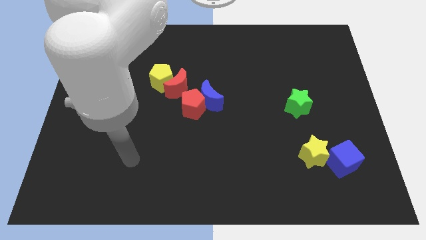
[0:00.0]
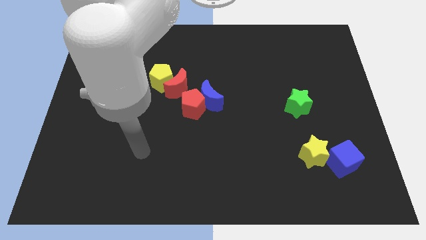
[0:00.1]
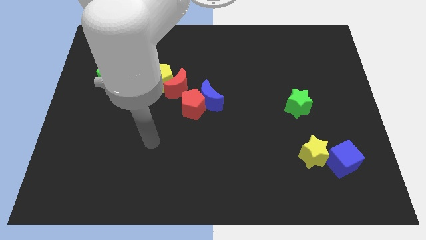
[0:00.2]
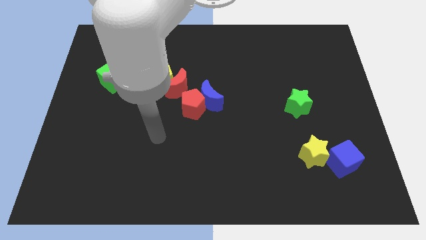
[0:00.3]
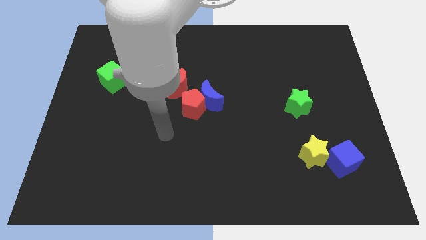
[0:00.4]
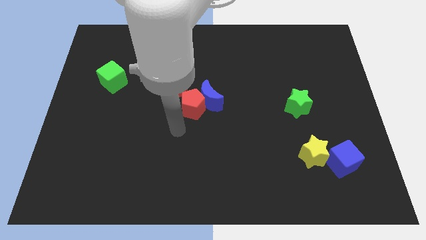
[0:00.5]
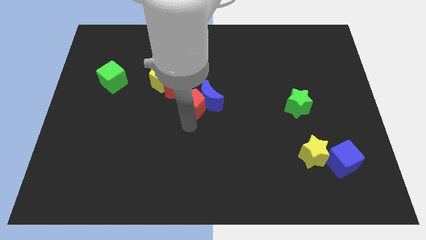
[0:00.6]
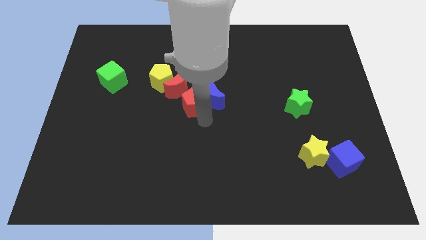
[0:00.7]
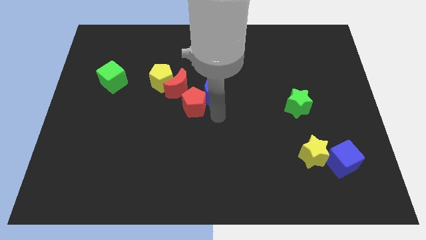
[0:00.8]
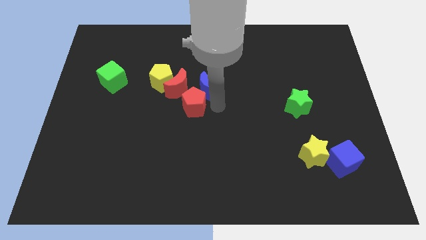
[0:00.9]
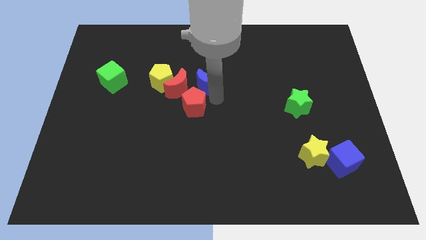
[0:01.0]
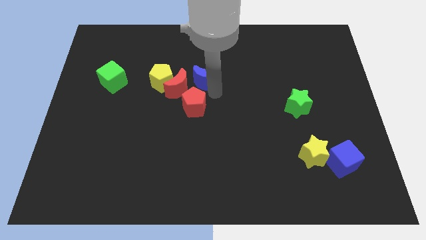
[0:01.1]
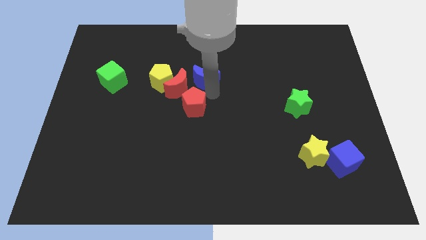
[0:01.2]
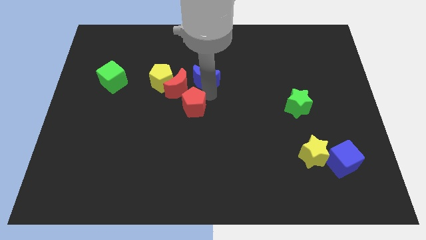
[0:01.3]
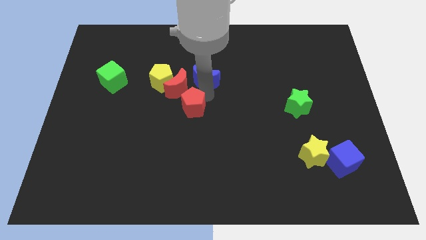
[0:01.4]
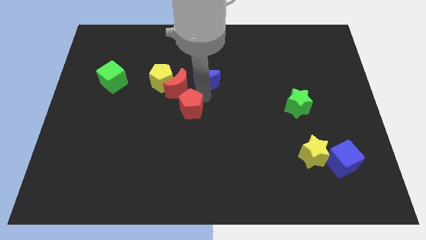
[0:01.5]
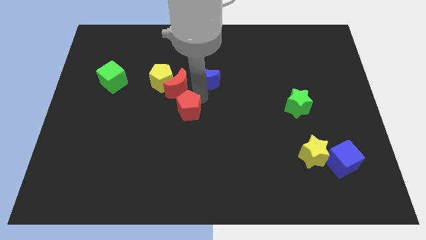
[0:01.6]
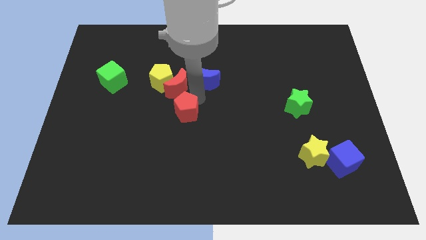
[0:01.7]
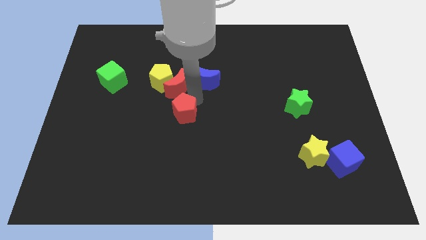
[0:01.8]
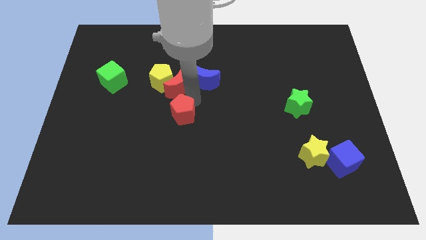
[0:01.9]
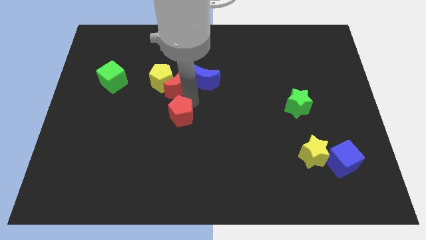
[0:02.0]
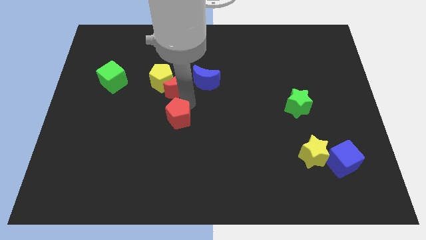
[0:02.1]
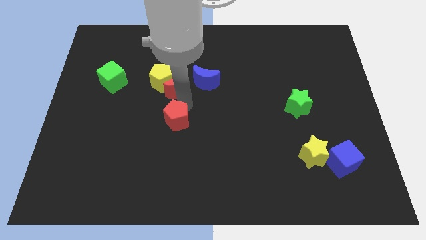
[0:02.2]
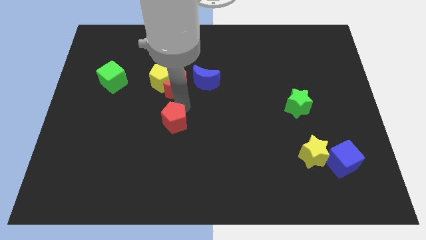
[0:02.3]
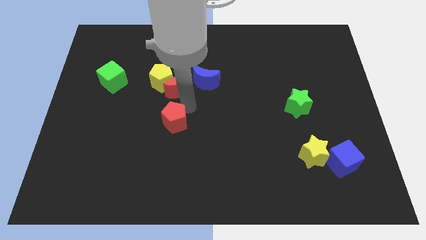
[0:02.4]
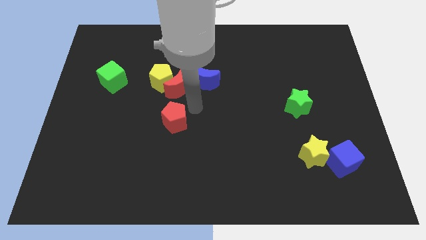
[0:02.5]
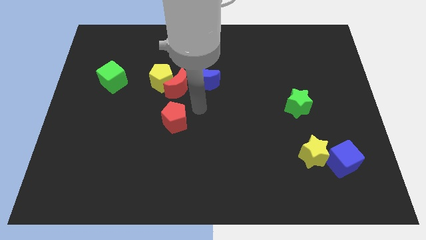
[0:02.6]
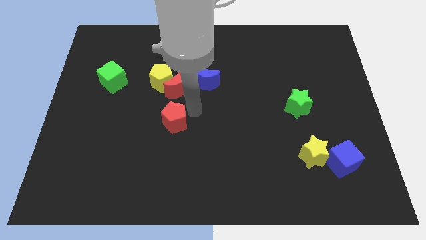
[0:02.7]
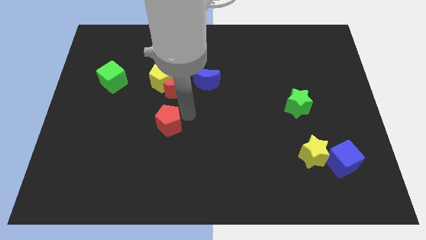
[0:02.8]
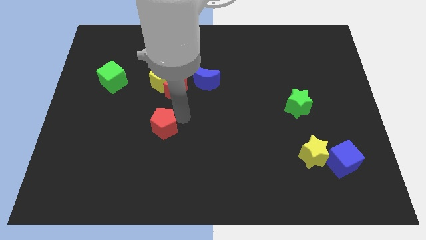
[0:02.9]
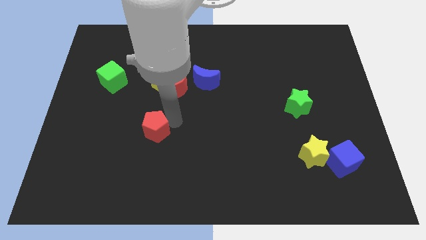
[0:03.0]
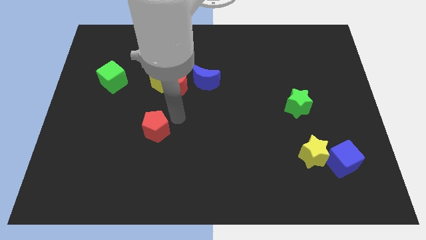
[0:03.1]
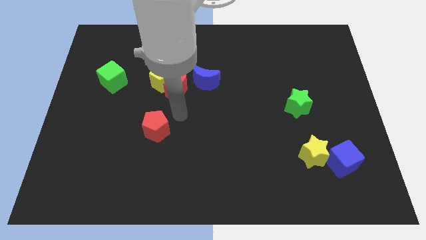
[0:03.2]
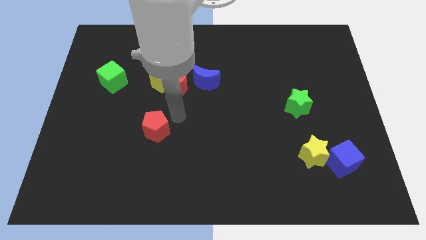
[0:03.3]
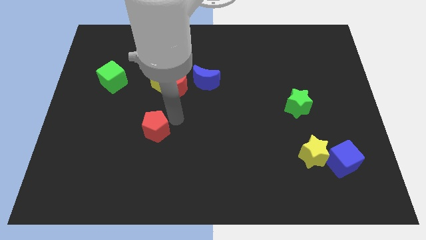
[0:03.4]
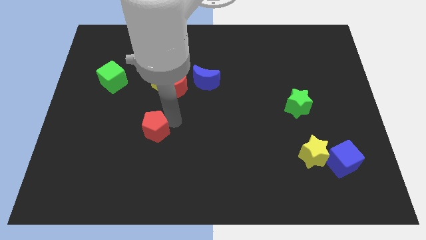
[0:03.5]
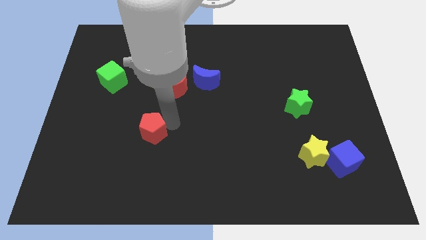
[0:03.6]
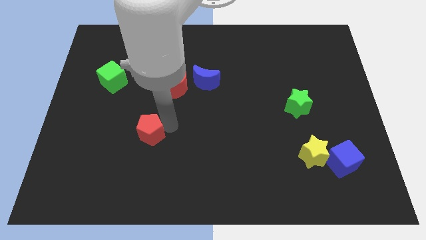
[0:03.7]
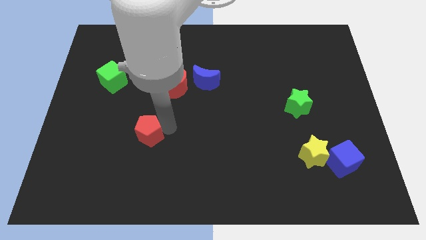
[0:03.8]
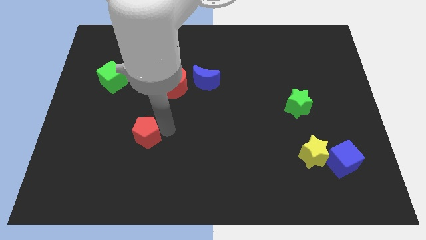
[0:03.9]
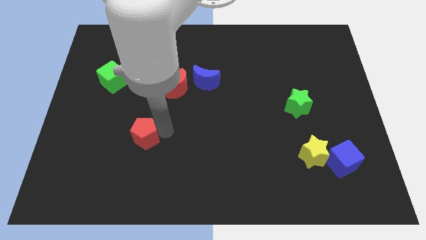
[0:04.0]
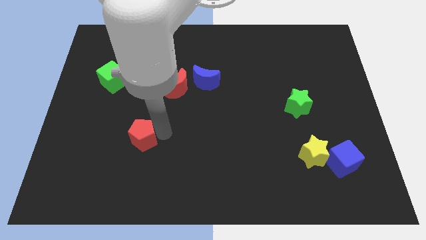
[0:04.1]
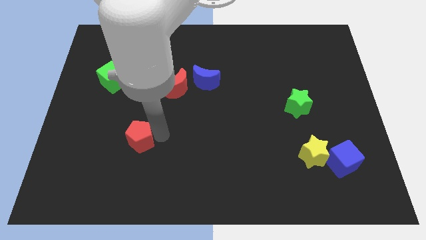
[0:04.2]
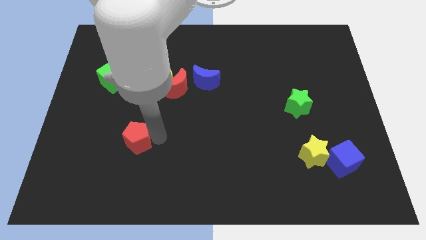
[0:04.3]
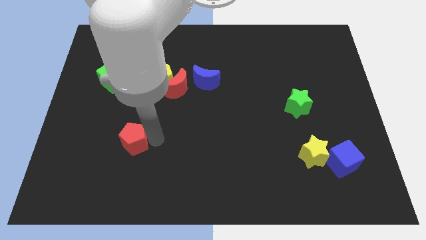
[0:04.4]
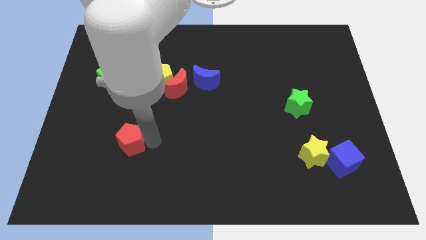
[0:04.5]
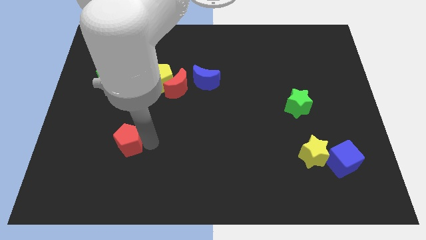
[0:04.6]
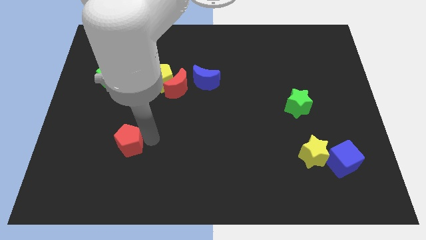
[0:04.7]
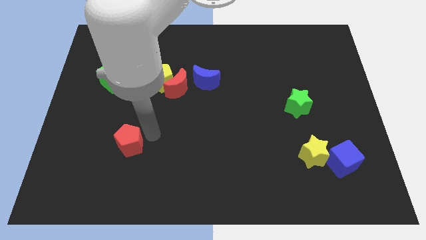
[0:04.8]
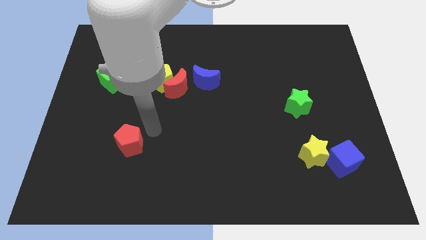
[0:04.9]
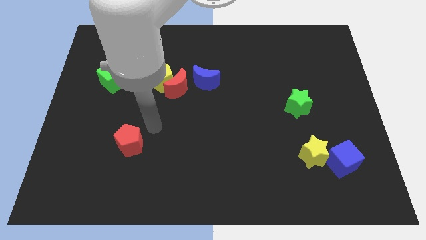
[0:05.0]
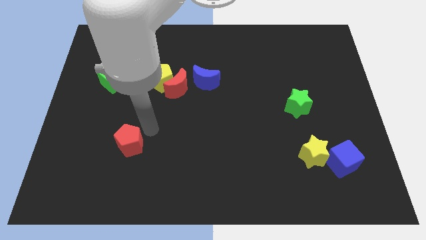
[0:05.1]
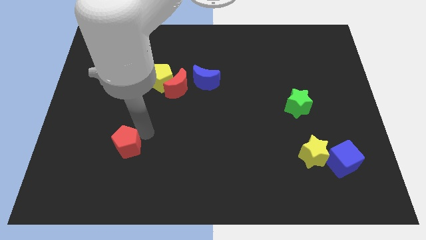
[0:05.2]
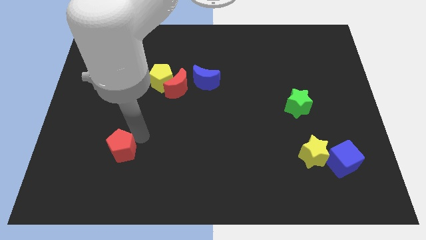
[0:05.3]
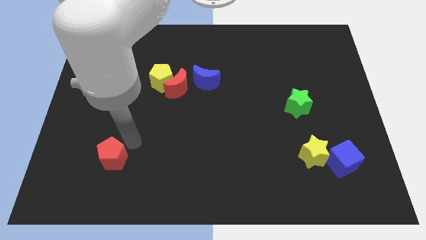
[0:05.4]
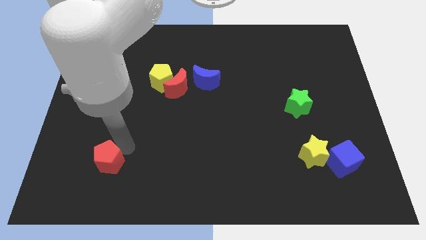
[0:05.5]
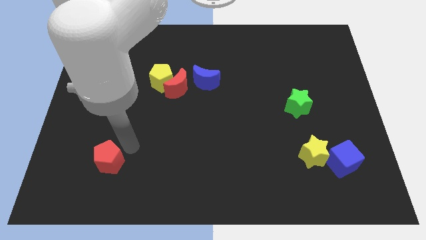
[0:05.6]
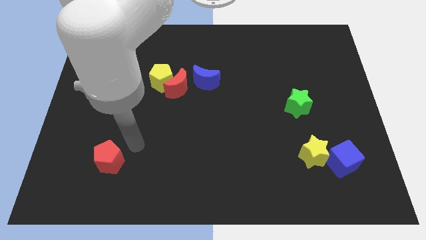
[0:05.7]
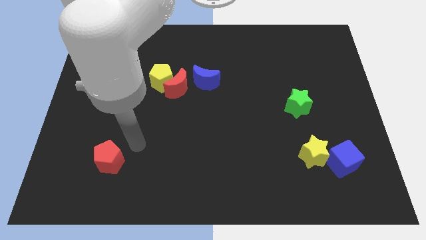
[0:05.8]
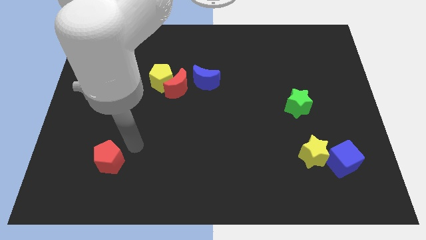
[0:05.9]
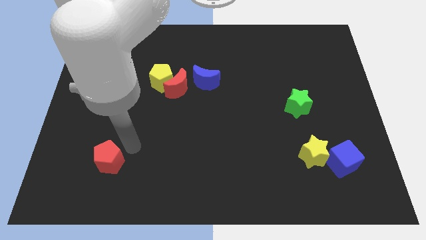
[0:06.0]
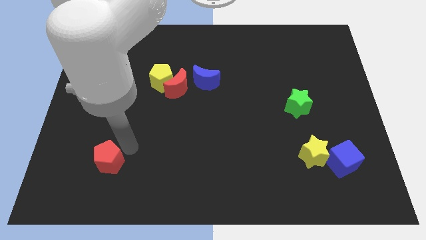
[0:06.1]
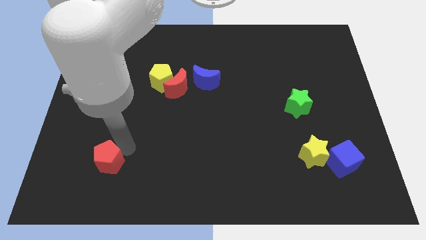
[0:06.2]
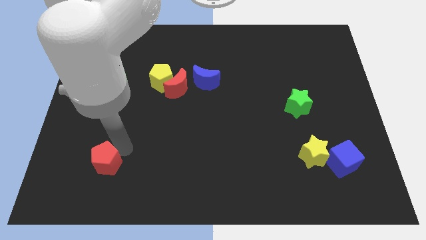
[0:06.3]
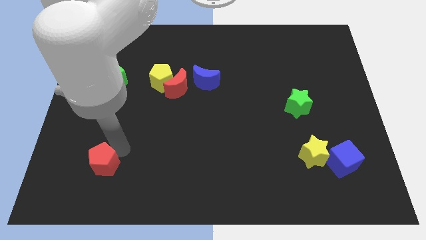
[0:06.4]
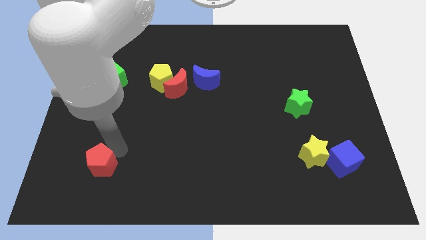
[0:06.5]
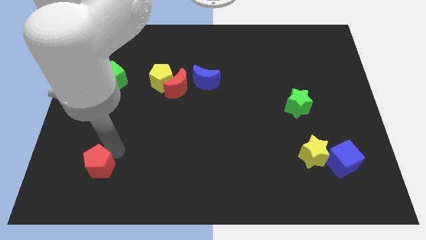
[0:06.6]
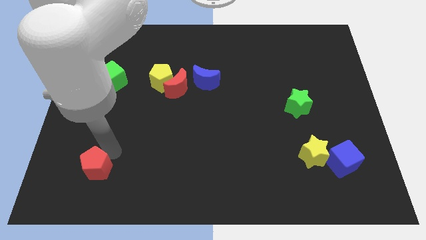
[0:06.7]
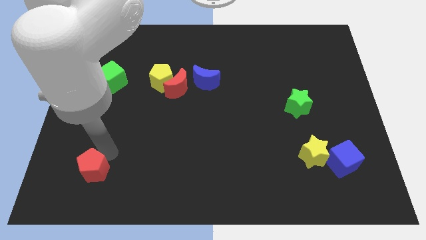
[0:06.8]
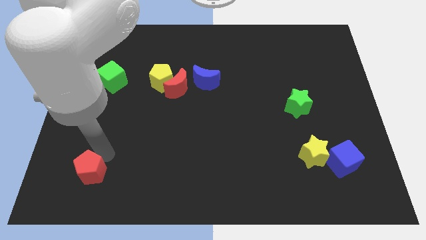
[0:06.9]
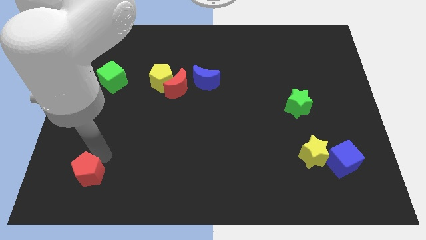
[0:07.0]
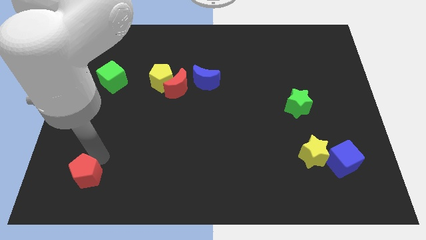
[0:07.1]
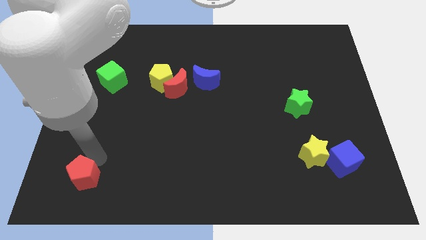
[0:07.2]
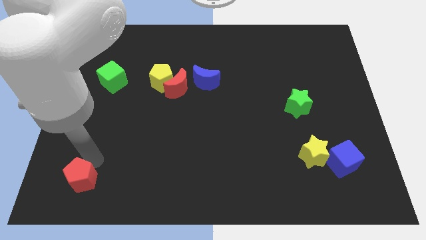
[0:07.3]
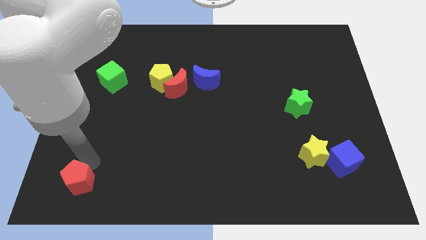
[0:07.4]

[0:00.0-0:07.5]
move the red pentagon to the bottom left corner
